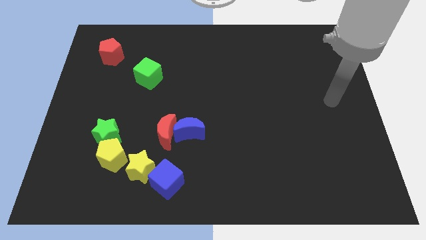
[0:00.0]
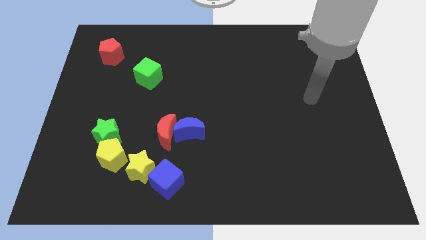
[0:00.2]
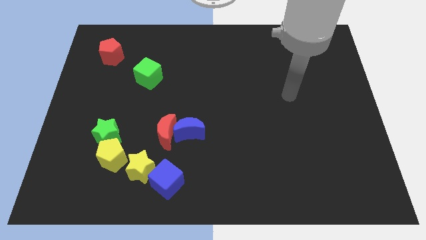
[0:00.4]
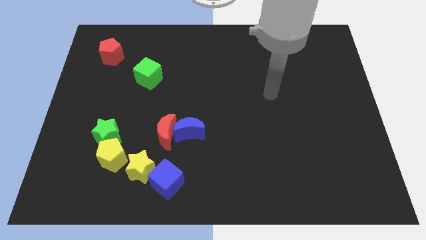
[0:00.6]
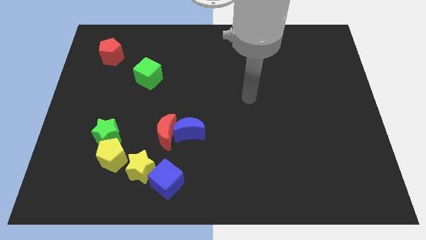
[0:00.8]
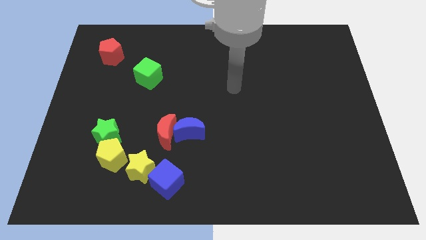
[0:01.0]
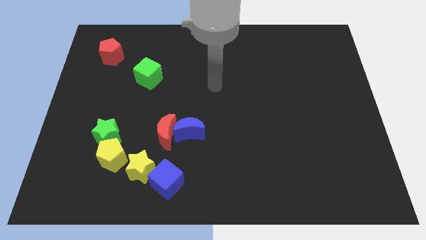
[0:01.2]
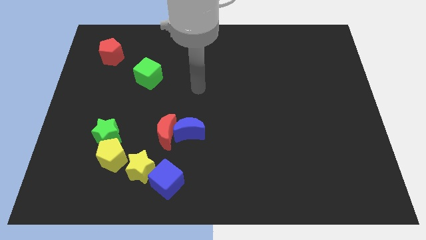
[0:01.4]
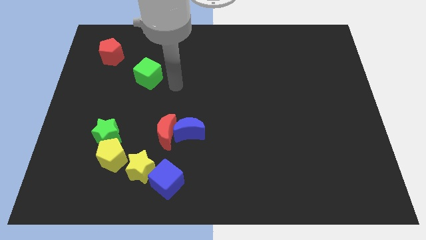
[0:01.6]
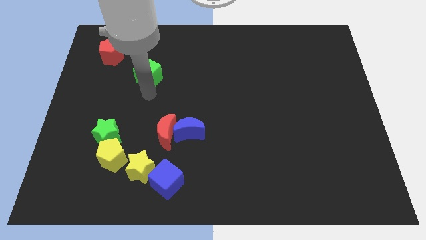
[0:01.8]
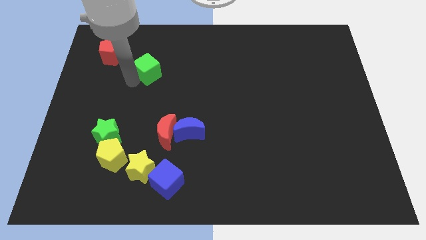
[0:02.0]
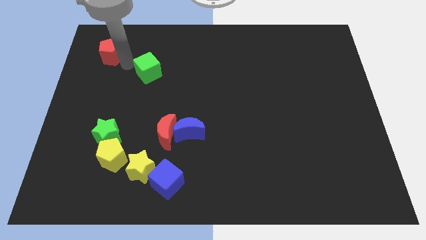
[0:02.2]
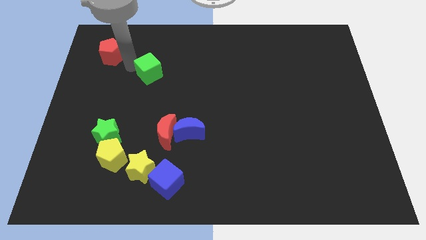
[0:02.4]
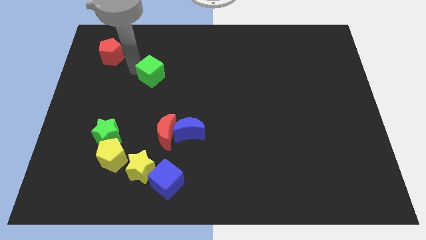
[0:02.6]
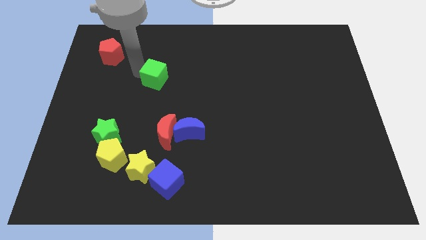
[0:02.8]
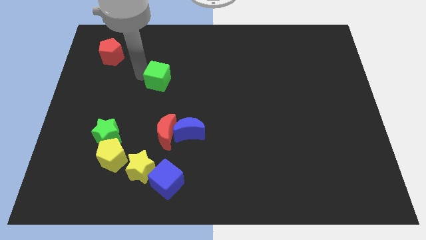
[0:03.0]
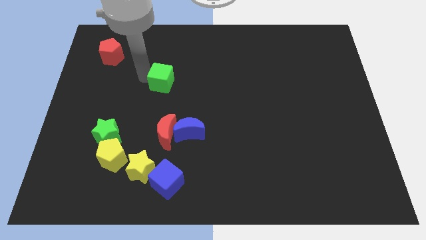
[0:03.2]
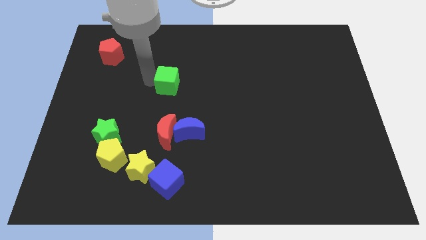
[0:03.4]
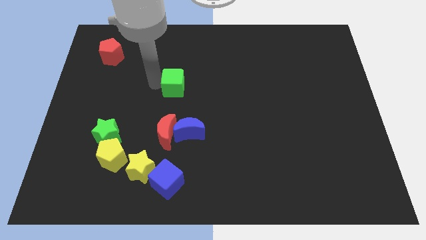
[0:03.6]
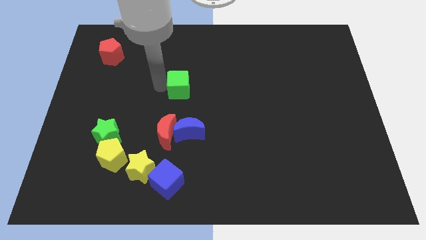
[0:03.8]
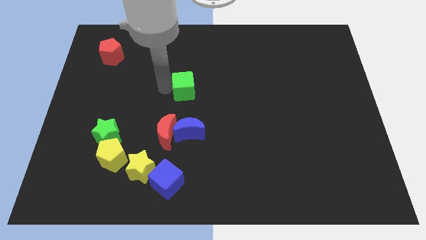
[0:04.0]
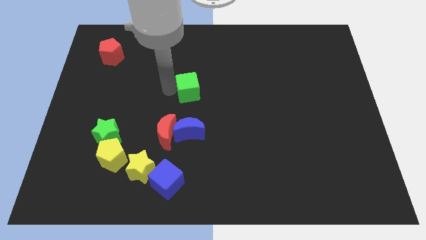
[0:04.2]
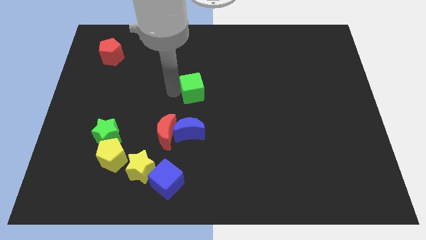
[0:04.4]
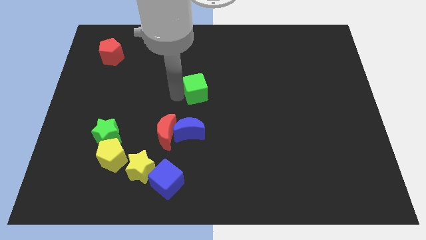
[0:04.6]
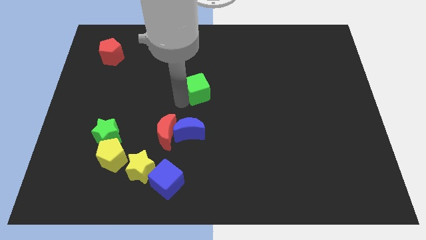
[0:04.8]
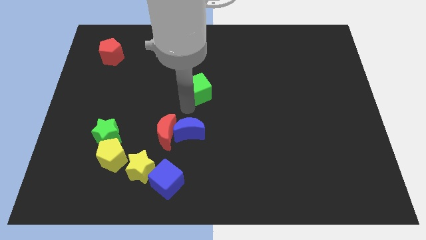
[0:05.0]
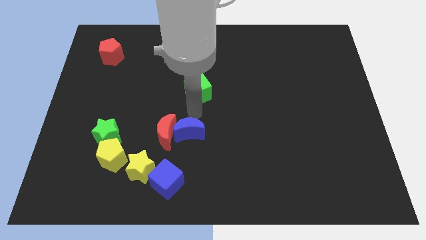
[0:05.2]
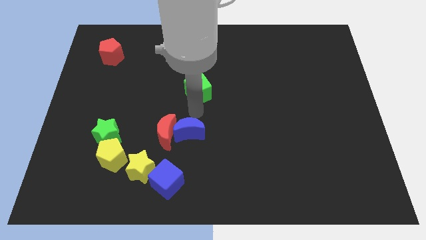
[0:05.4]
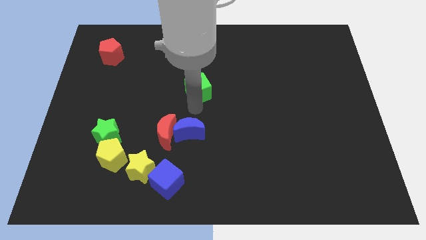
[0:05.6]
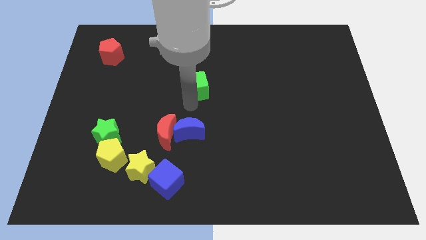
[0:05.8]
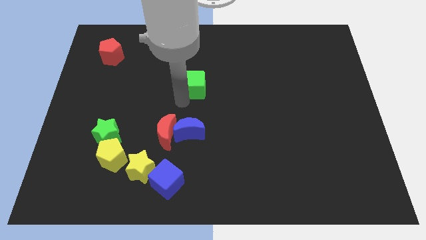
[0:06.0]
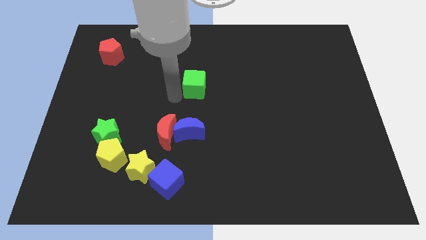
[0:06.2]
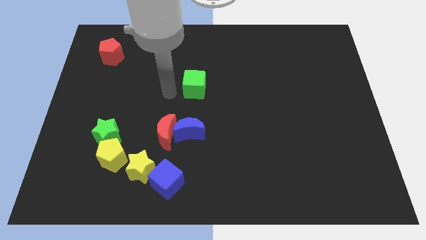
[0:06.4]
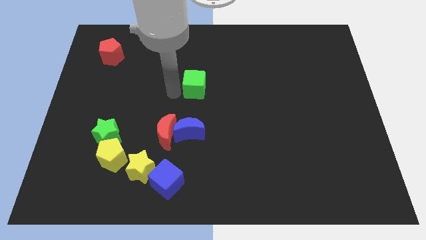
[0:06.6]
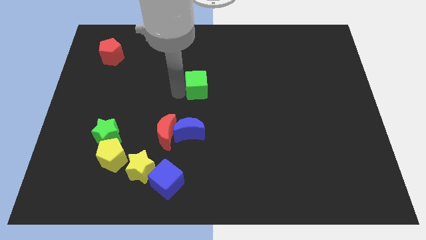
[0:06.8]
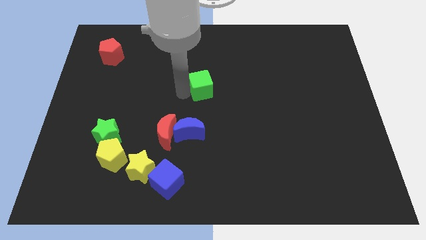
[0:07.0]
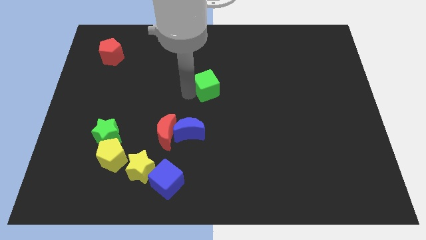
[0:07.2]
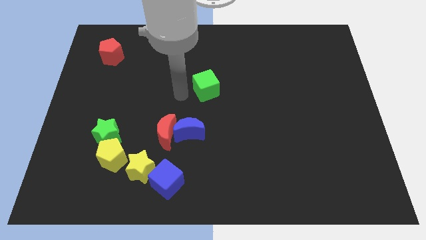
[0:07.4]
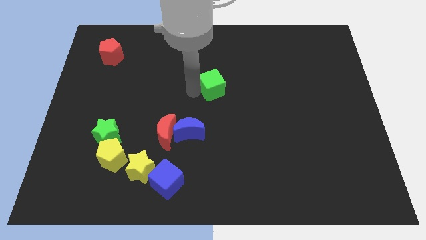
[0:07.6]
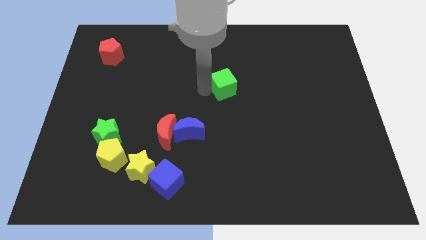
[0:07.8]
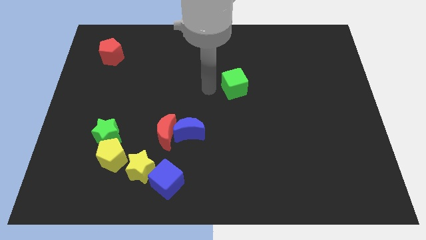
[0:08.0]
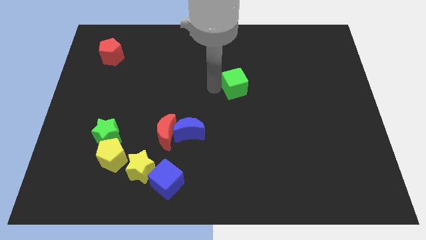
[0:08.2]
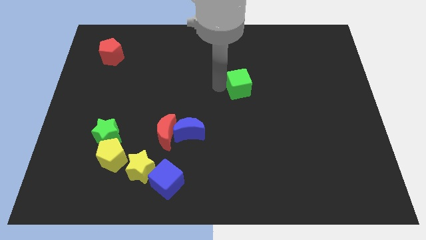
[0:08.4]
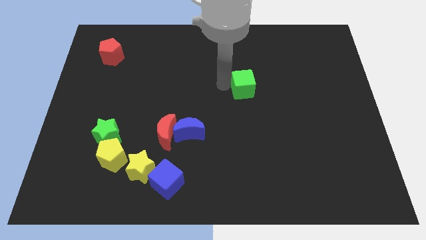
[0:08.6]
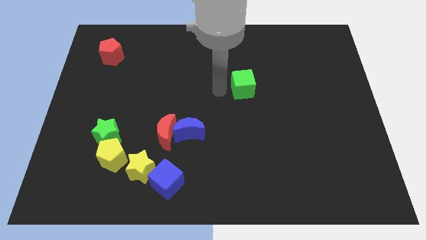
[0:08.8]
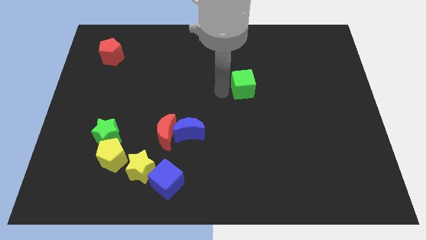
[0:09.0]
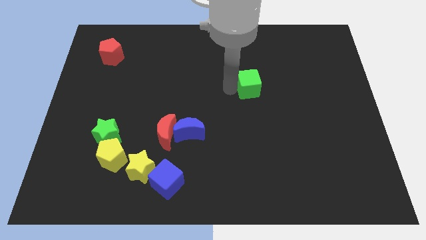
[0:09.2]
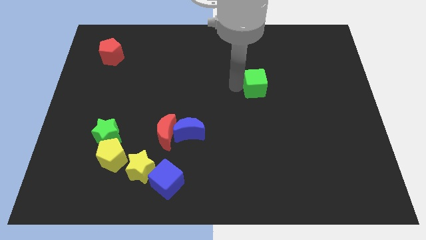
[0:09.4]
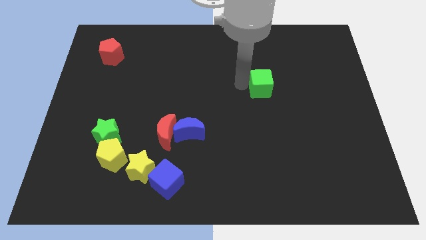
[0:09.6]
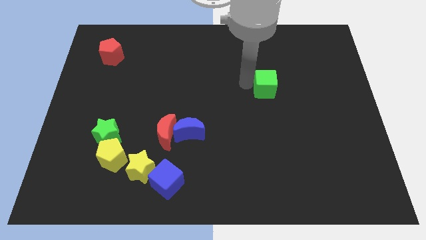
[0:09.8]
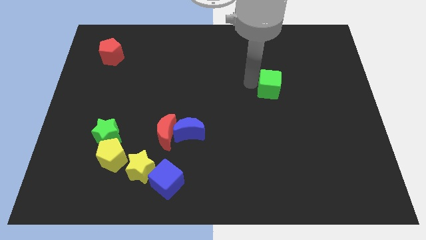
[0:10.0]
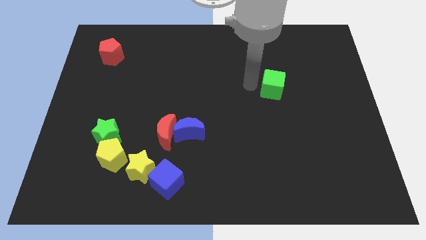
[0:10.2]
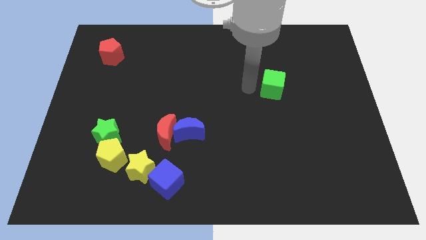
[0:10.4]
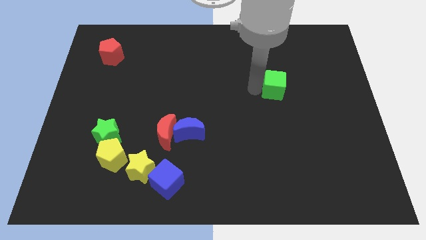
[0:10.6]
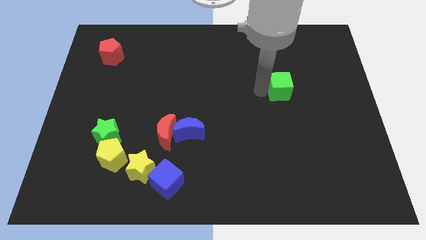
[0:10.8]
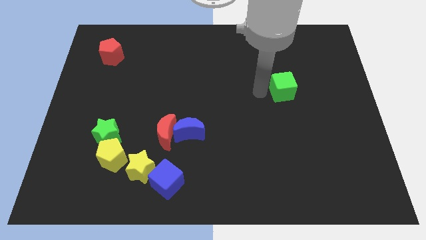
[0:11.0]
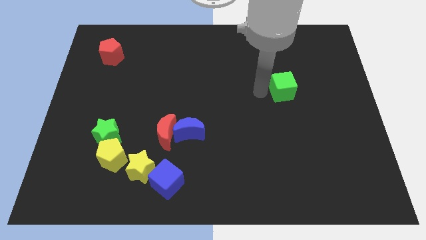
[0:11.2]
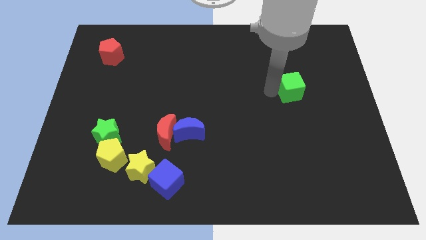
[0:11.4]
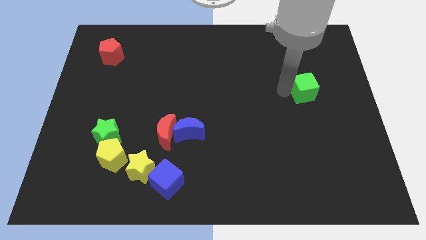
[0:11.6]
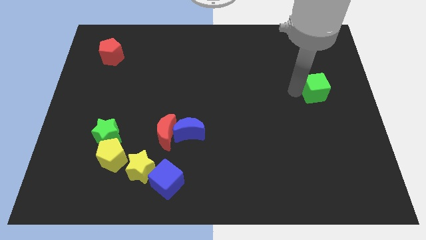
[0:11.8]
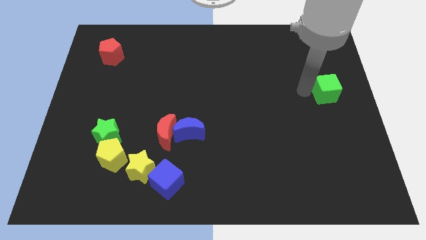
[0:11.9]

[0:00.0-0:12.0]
push the green cube to the right side
